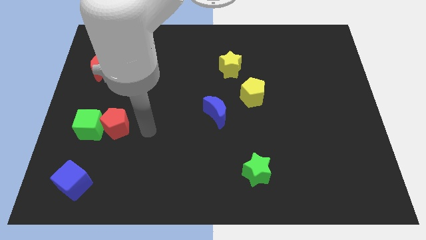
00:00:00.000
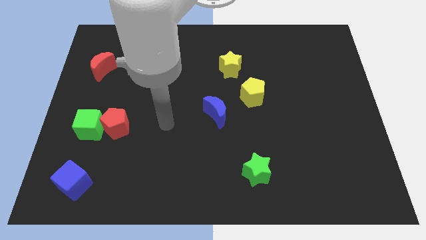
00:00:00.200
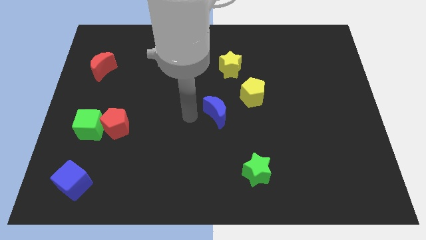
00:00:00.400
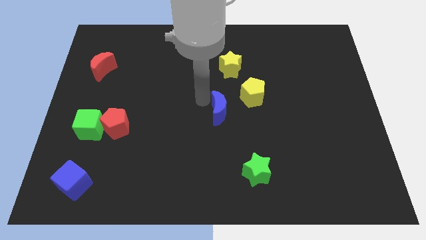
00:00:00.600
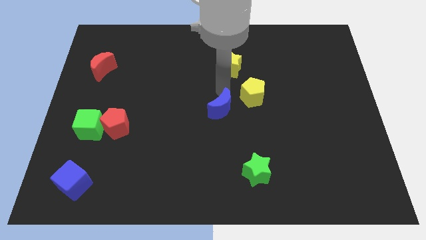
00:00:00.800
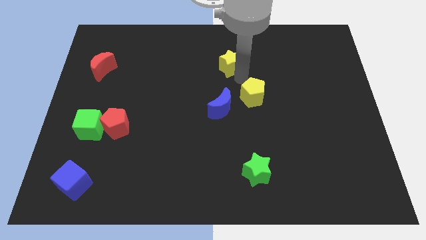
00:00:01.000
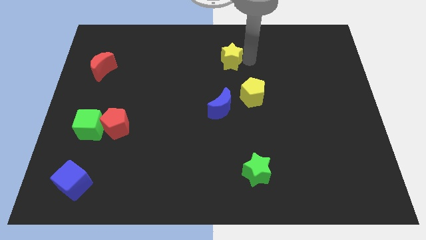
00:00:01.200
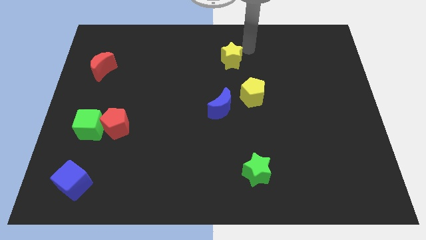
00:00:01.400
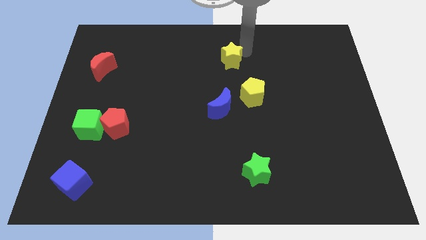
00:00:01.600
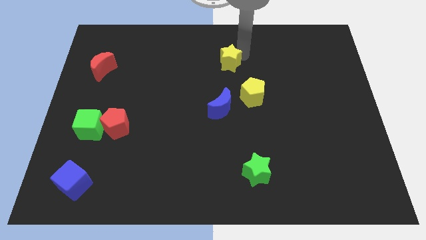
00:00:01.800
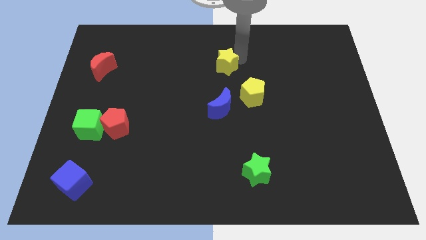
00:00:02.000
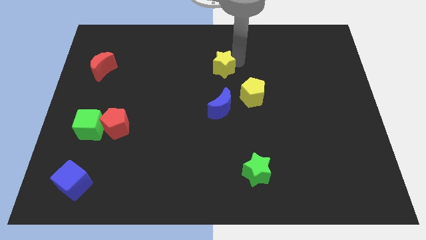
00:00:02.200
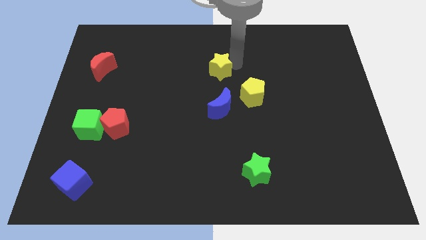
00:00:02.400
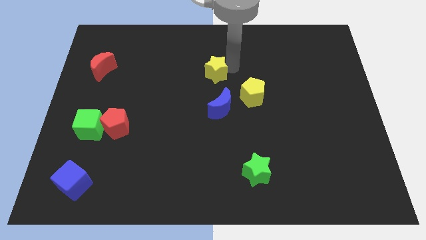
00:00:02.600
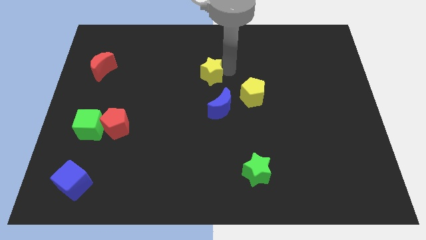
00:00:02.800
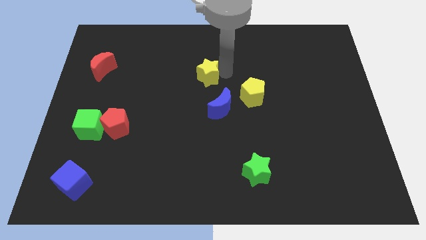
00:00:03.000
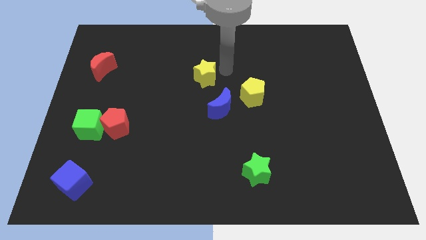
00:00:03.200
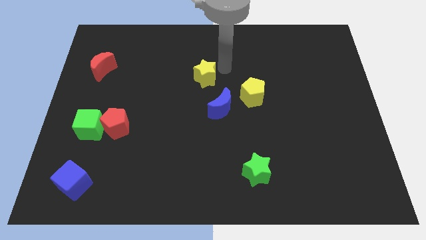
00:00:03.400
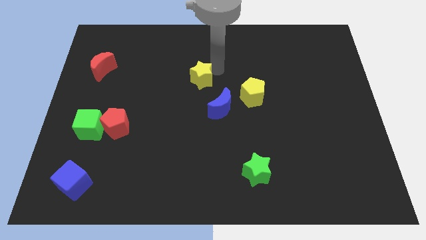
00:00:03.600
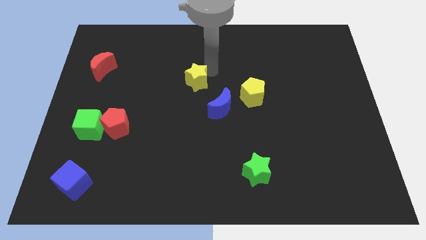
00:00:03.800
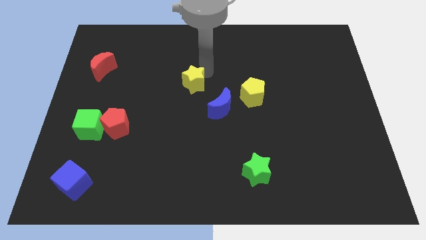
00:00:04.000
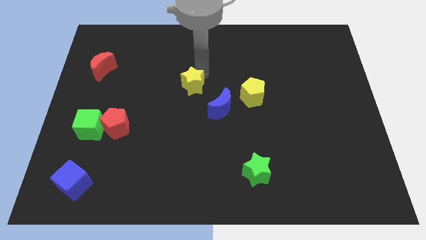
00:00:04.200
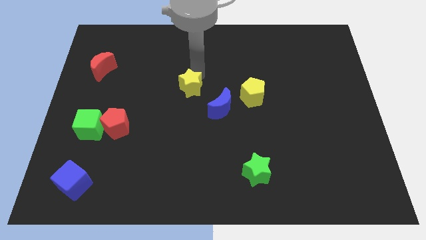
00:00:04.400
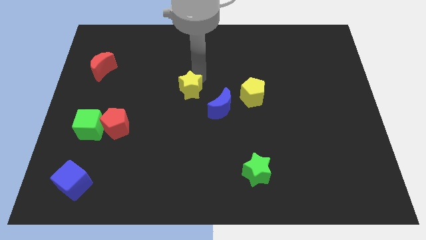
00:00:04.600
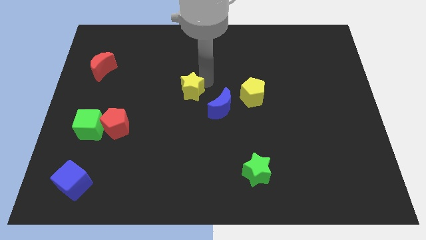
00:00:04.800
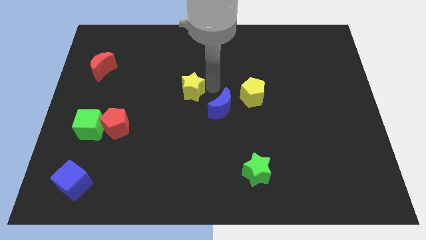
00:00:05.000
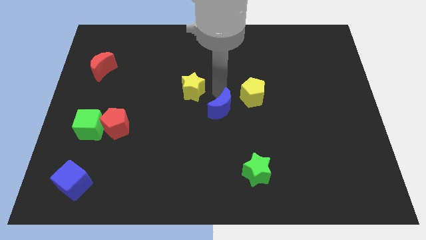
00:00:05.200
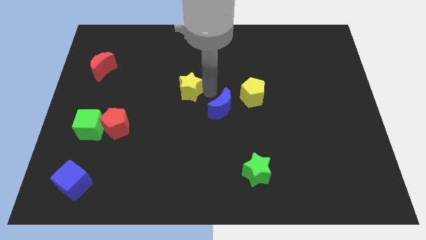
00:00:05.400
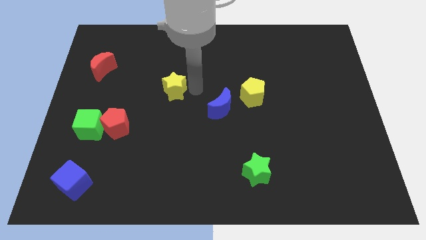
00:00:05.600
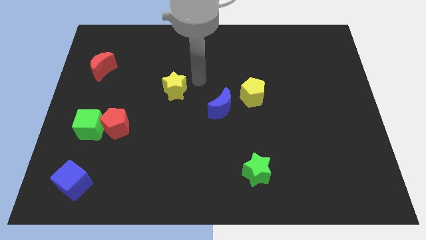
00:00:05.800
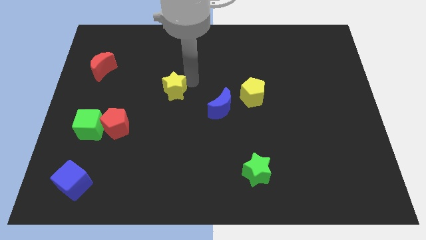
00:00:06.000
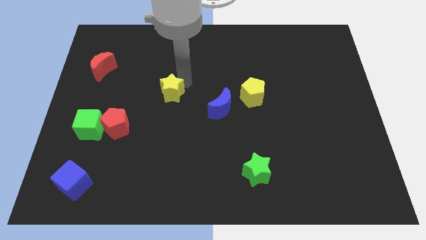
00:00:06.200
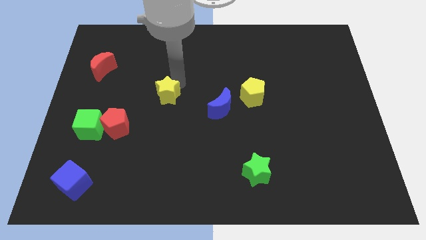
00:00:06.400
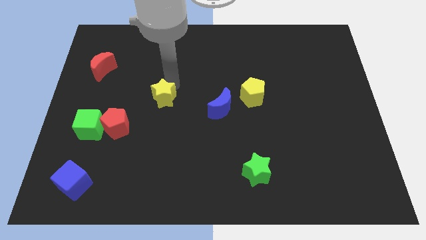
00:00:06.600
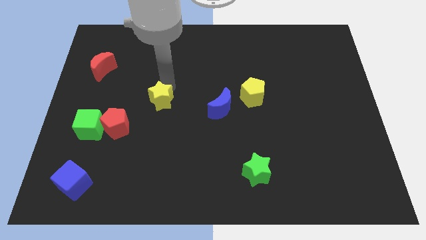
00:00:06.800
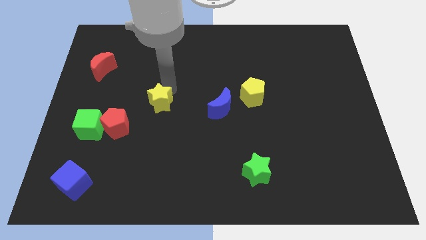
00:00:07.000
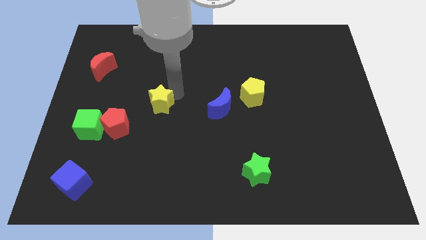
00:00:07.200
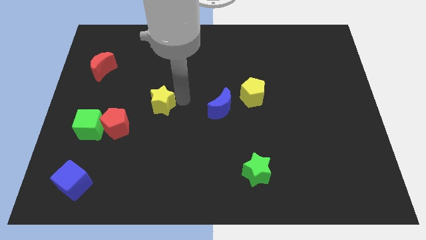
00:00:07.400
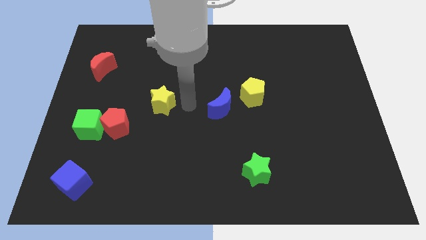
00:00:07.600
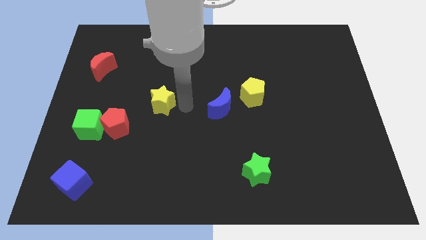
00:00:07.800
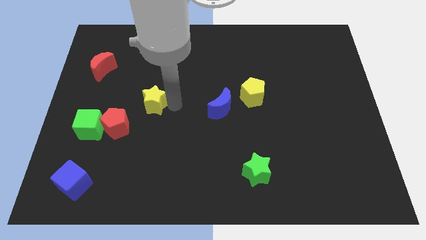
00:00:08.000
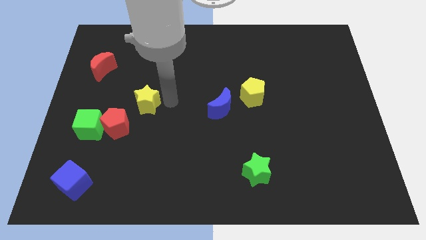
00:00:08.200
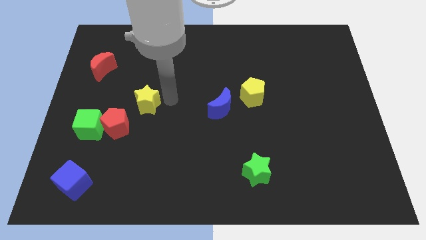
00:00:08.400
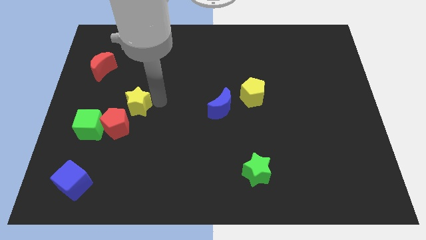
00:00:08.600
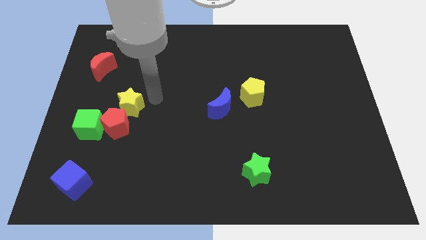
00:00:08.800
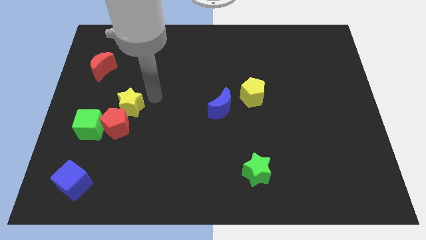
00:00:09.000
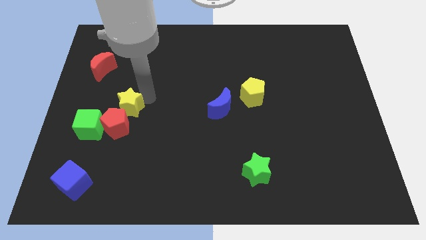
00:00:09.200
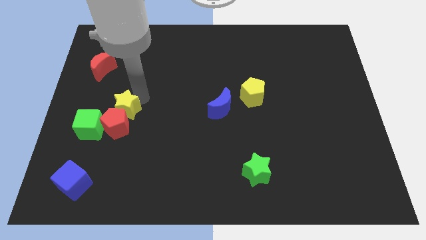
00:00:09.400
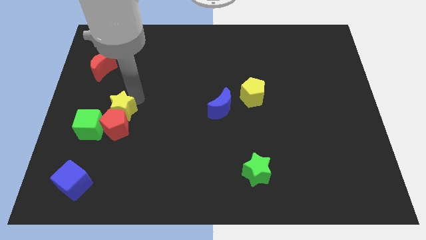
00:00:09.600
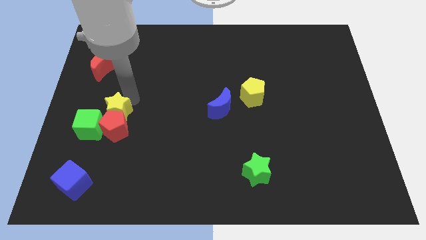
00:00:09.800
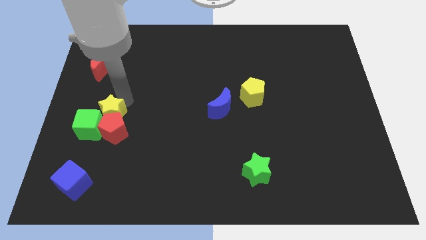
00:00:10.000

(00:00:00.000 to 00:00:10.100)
push the yellow star close to the green cube

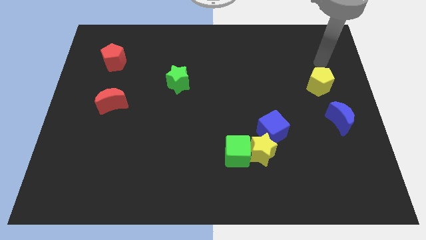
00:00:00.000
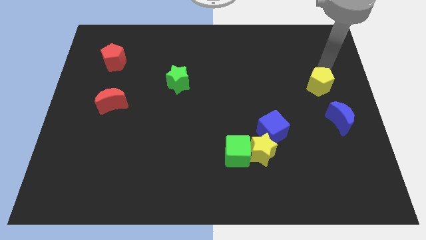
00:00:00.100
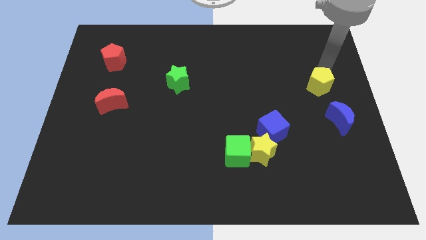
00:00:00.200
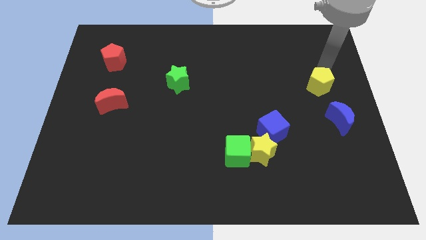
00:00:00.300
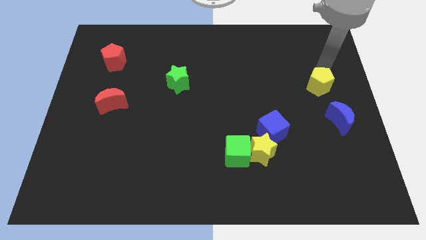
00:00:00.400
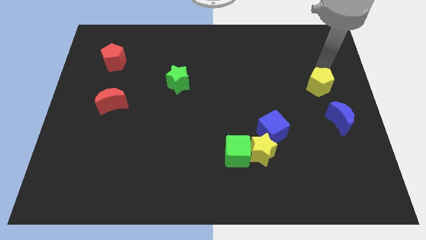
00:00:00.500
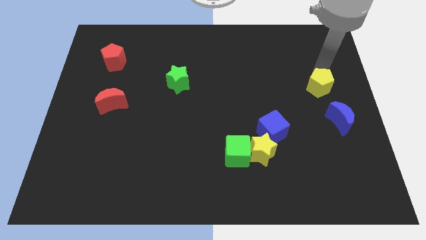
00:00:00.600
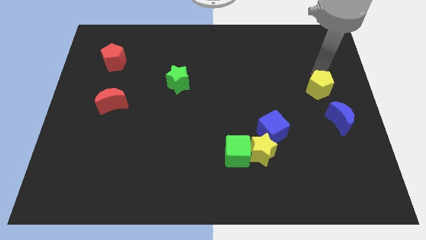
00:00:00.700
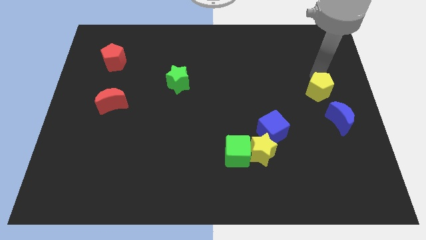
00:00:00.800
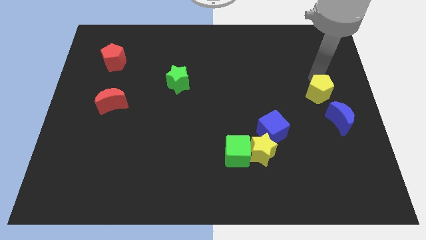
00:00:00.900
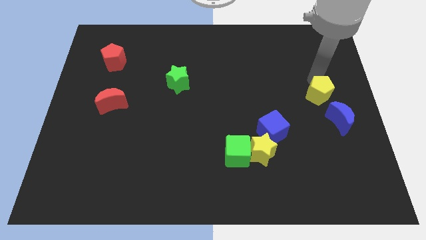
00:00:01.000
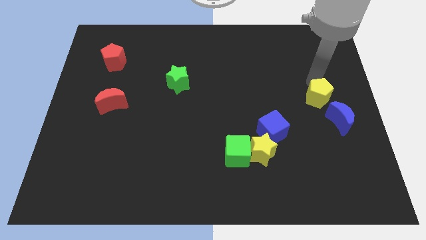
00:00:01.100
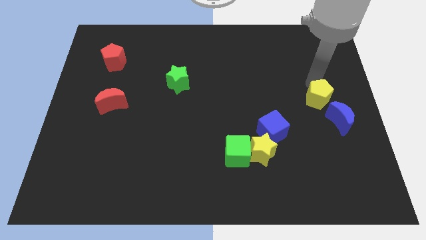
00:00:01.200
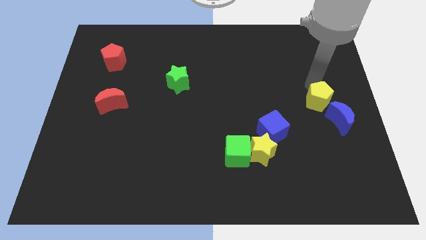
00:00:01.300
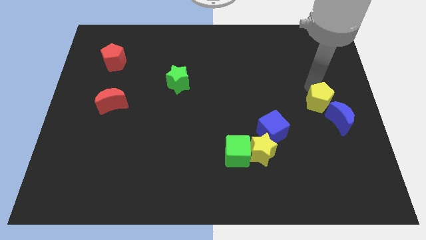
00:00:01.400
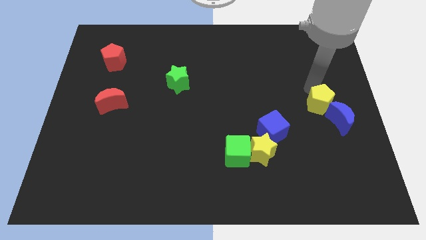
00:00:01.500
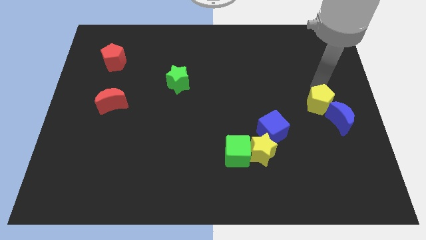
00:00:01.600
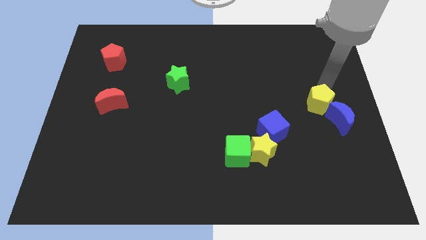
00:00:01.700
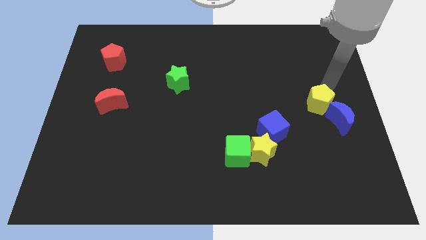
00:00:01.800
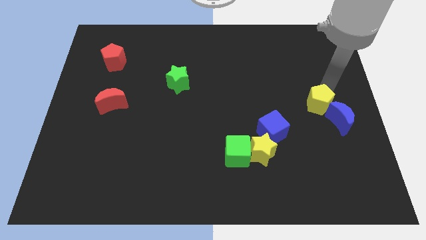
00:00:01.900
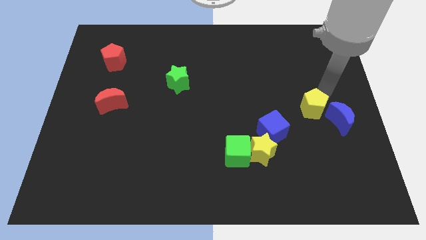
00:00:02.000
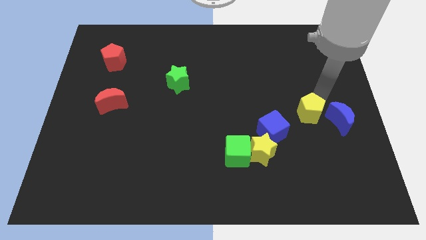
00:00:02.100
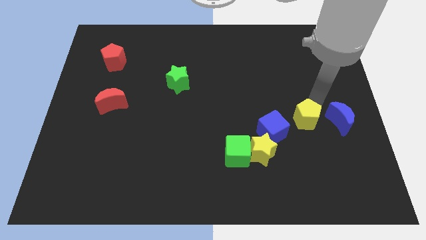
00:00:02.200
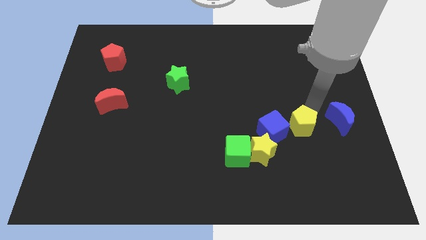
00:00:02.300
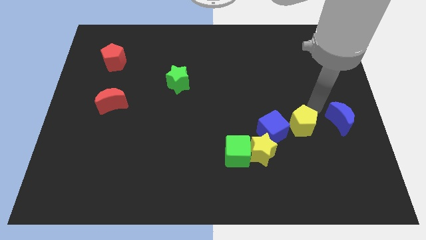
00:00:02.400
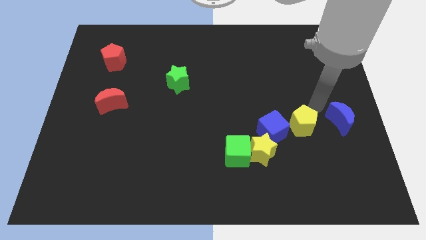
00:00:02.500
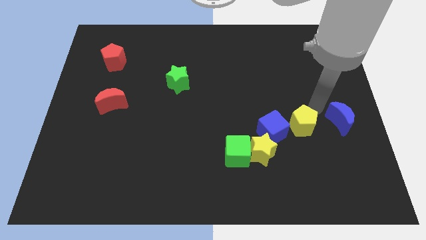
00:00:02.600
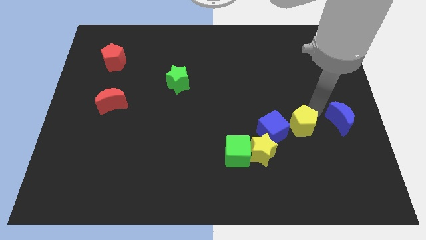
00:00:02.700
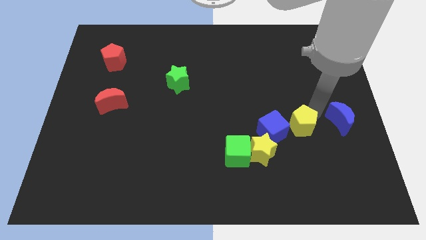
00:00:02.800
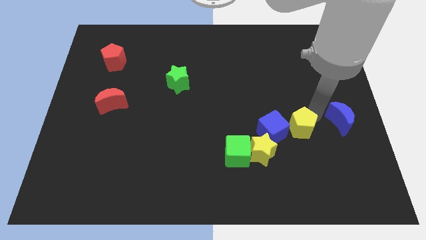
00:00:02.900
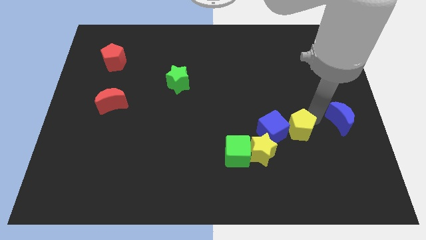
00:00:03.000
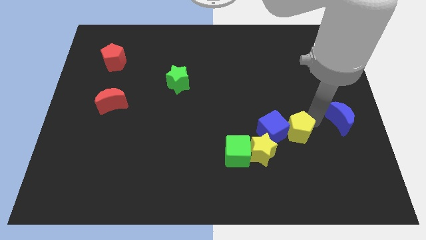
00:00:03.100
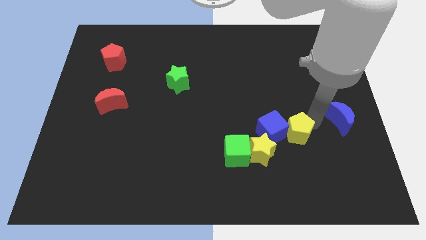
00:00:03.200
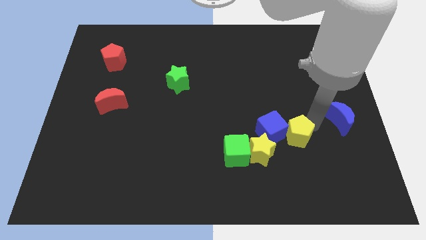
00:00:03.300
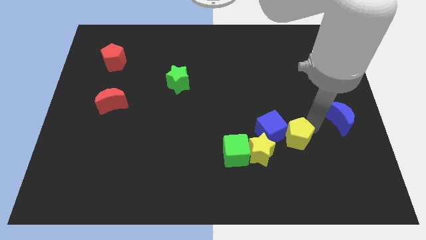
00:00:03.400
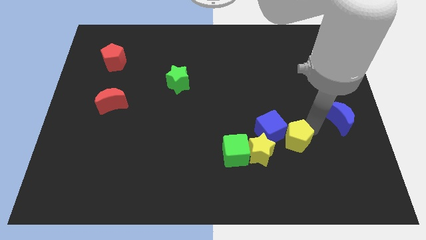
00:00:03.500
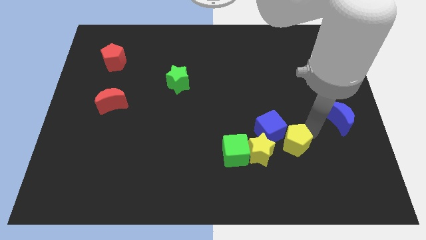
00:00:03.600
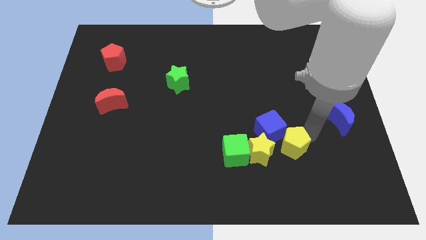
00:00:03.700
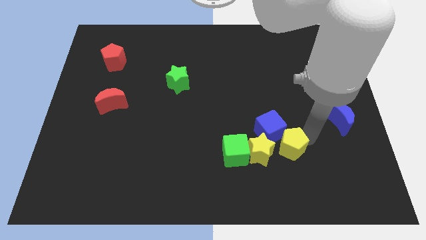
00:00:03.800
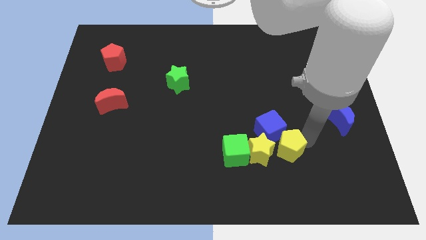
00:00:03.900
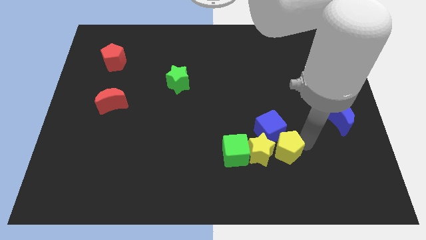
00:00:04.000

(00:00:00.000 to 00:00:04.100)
move the yellow pentagon to the yellow star
